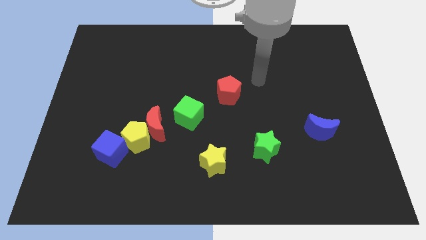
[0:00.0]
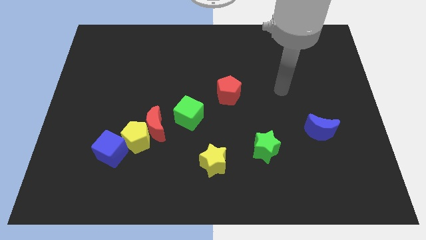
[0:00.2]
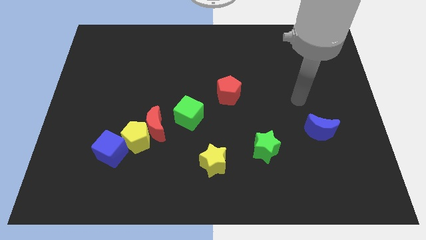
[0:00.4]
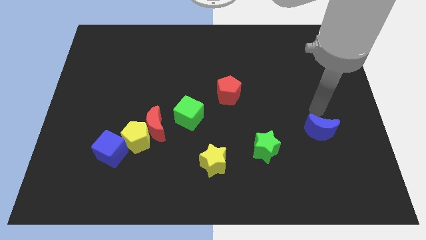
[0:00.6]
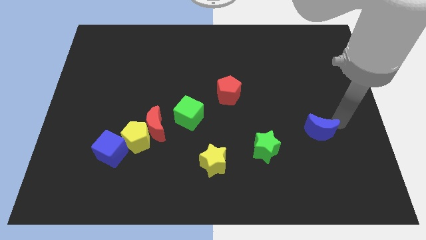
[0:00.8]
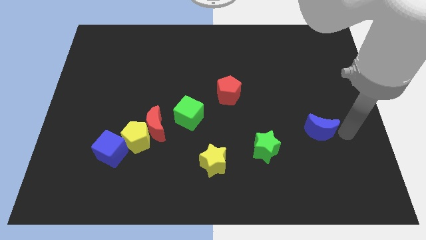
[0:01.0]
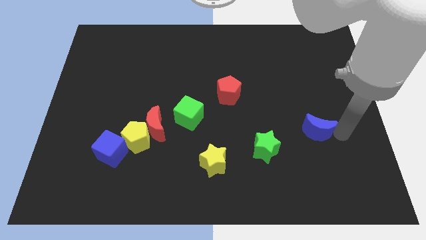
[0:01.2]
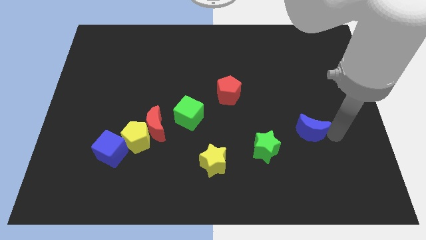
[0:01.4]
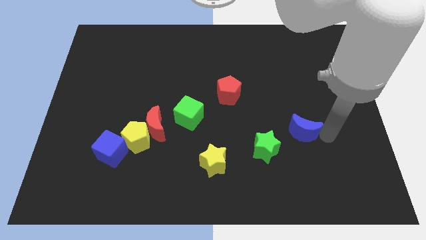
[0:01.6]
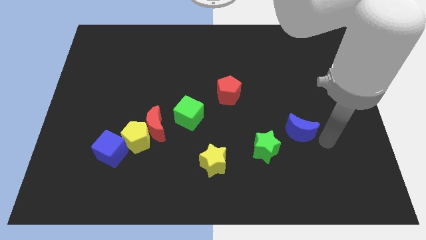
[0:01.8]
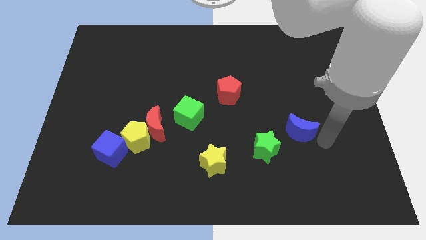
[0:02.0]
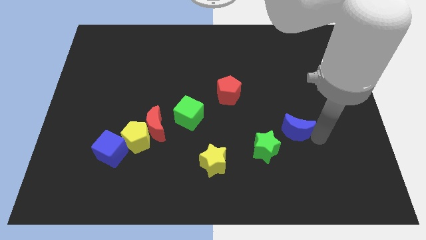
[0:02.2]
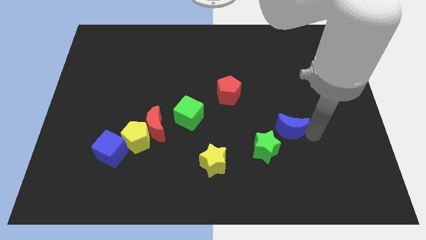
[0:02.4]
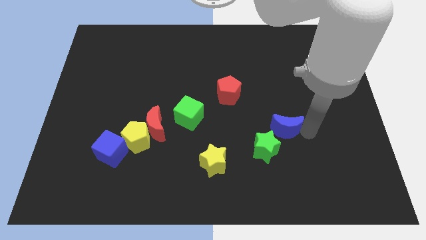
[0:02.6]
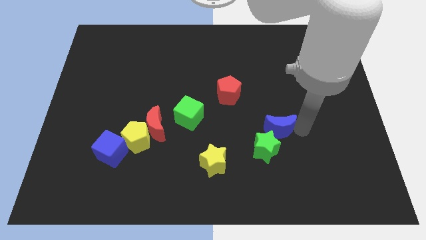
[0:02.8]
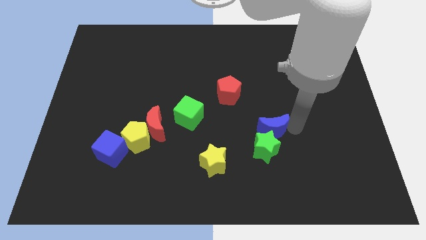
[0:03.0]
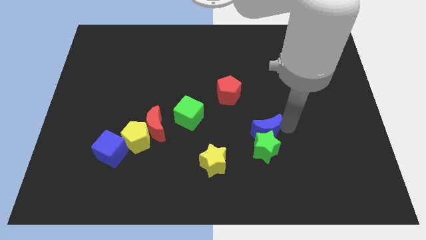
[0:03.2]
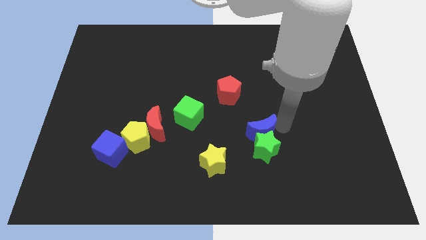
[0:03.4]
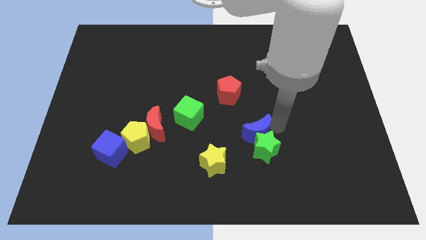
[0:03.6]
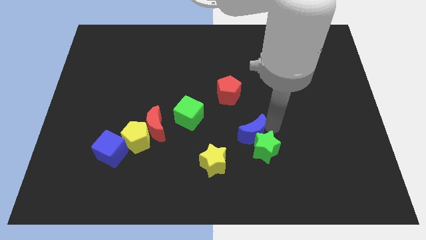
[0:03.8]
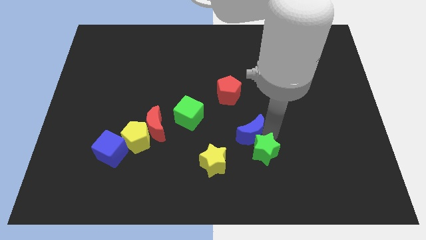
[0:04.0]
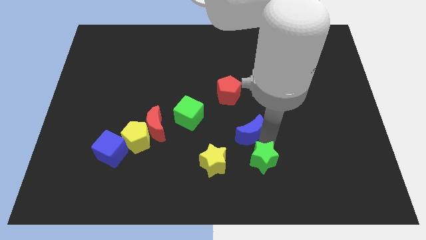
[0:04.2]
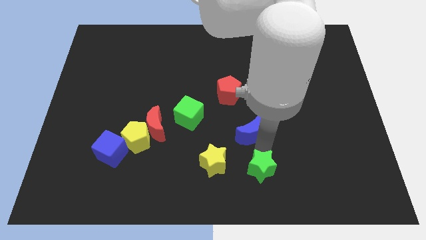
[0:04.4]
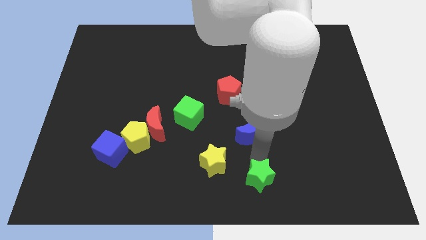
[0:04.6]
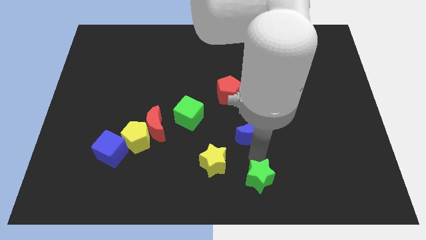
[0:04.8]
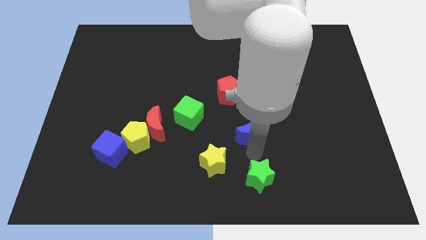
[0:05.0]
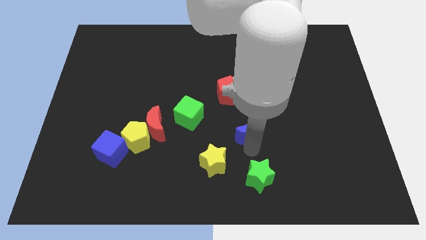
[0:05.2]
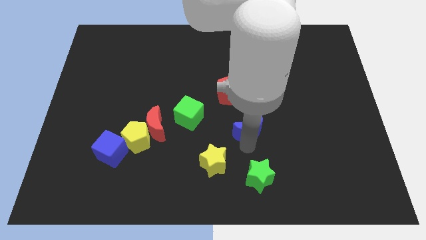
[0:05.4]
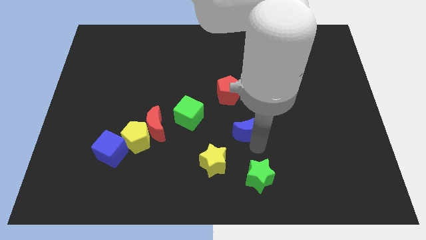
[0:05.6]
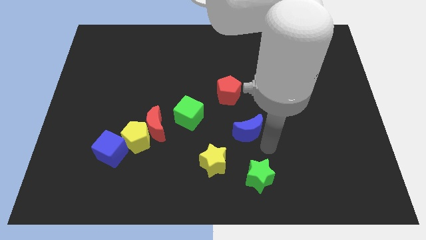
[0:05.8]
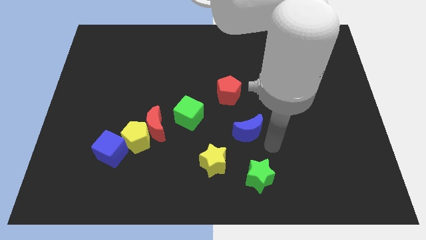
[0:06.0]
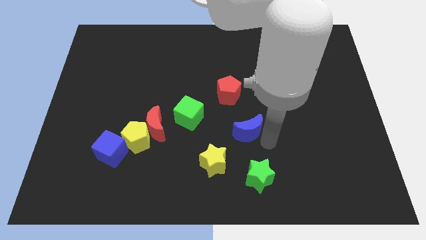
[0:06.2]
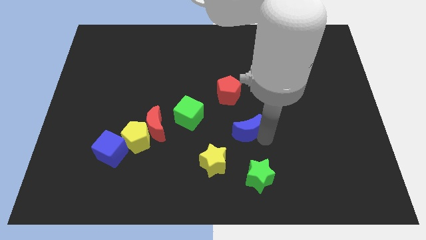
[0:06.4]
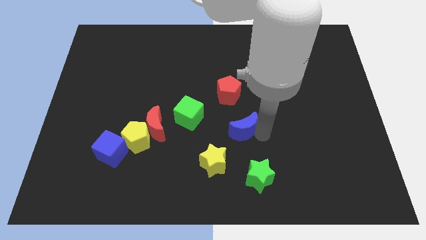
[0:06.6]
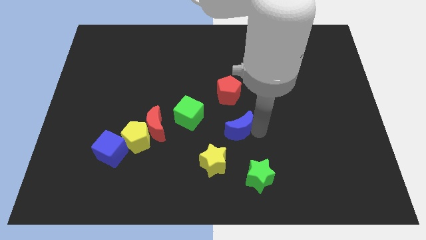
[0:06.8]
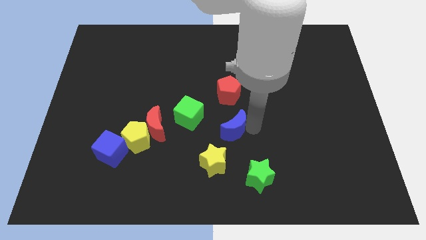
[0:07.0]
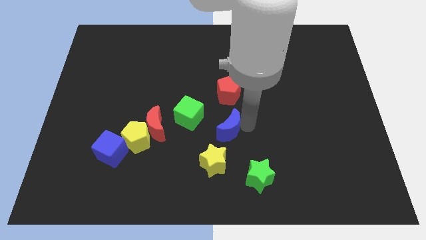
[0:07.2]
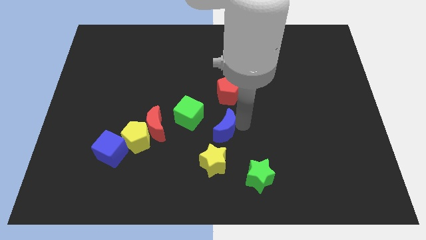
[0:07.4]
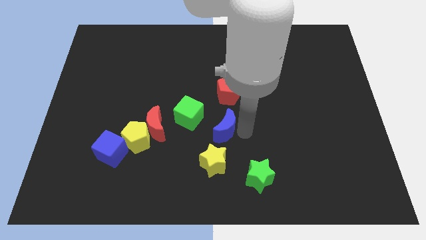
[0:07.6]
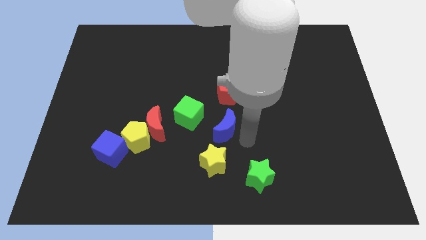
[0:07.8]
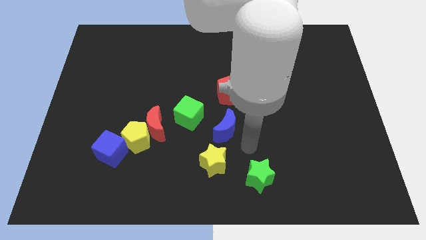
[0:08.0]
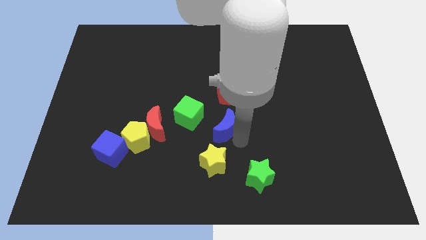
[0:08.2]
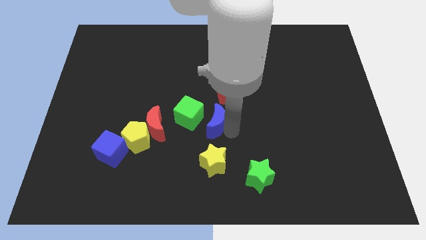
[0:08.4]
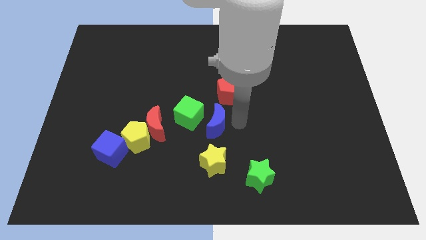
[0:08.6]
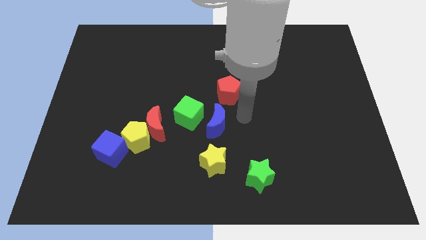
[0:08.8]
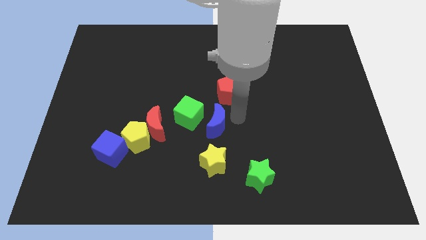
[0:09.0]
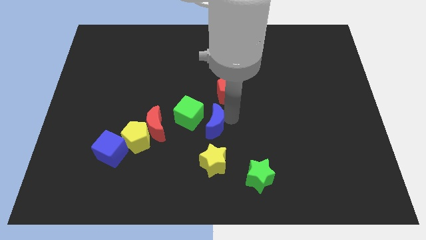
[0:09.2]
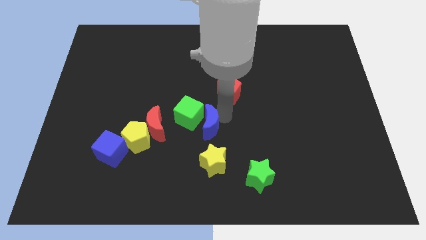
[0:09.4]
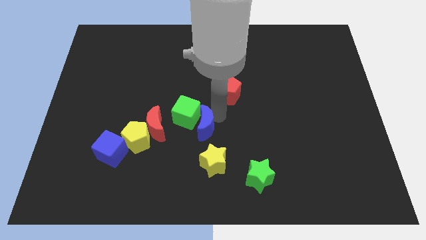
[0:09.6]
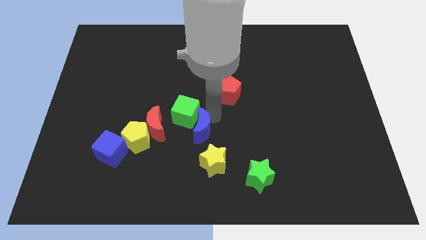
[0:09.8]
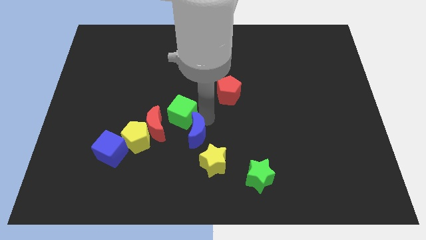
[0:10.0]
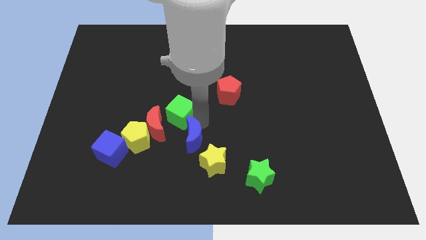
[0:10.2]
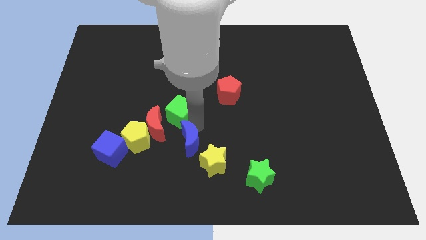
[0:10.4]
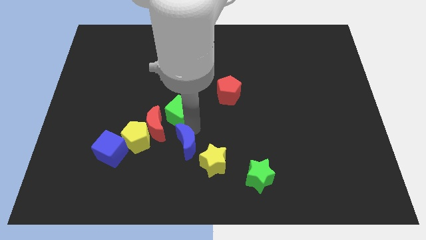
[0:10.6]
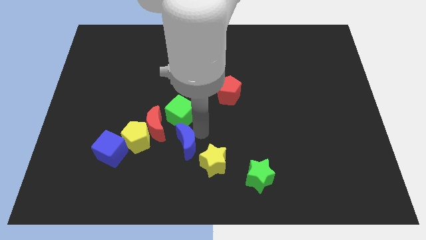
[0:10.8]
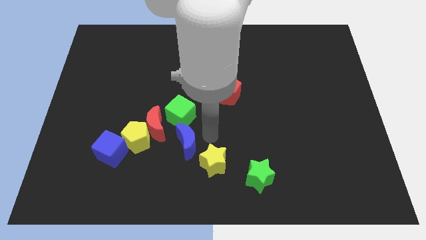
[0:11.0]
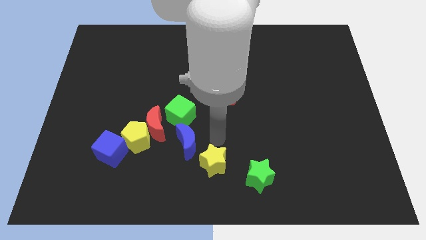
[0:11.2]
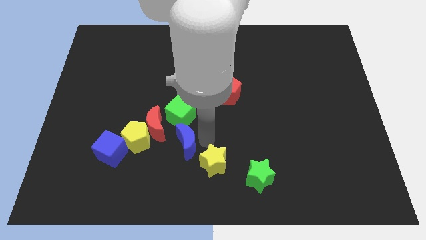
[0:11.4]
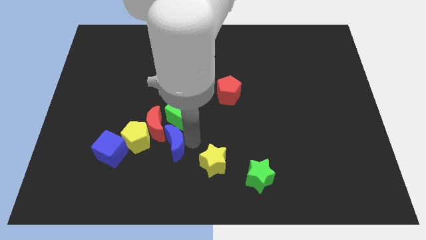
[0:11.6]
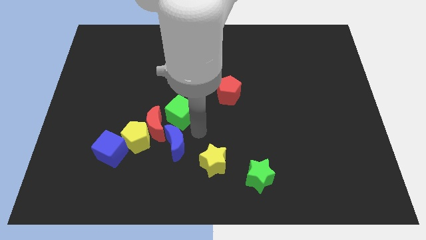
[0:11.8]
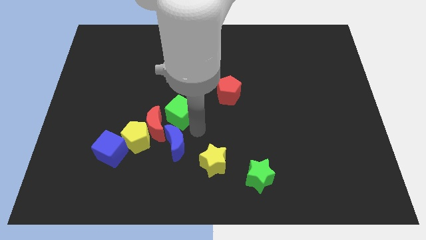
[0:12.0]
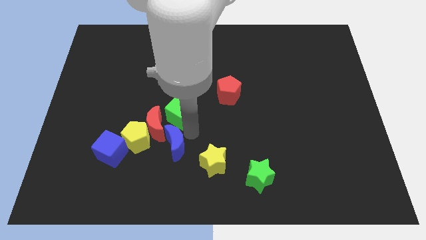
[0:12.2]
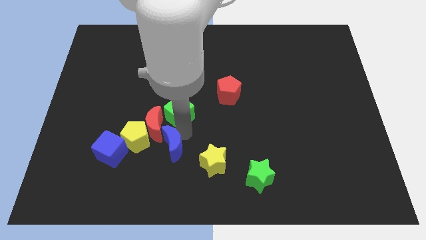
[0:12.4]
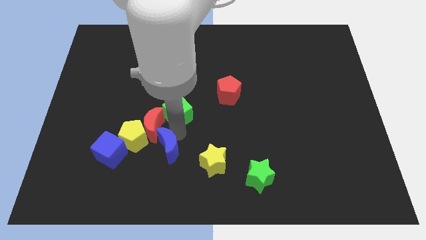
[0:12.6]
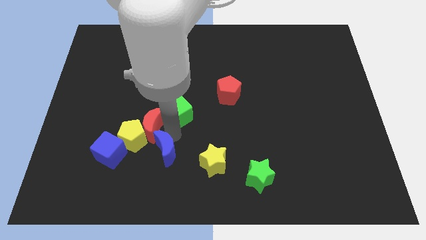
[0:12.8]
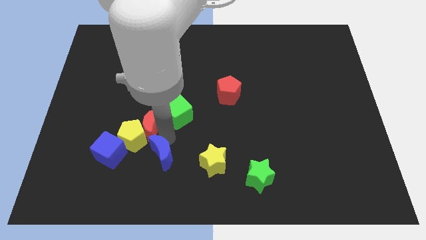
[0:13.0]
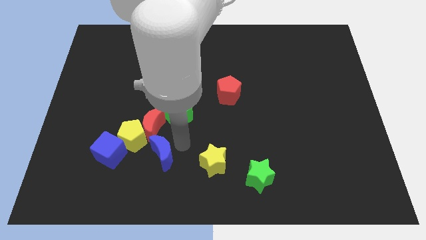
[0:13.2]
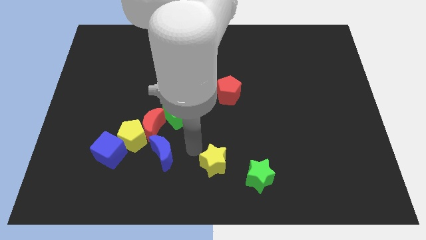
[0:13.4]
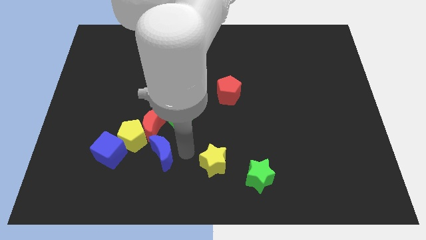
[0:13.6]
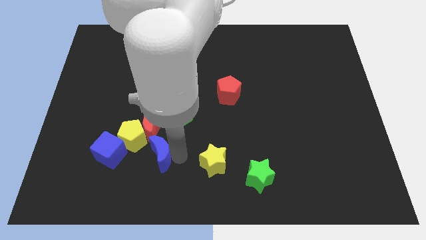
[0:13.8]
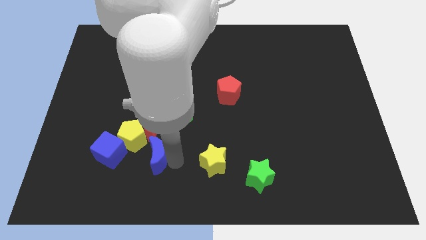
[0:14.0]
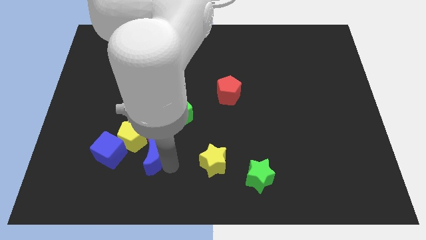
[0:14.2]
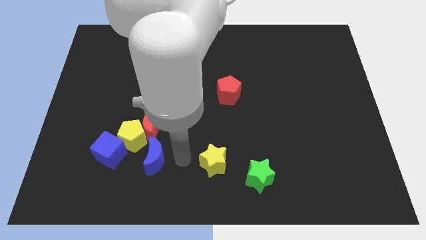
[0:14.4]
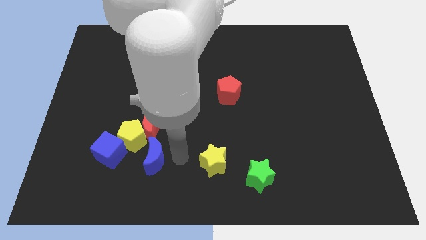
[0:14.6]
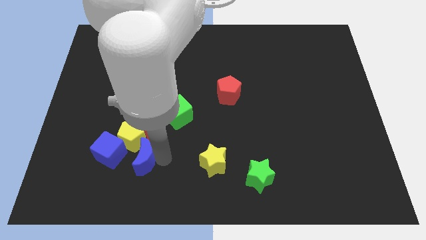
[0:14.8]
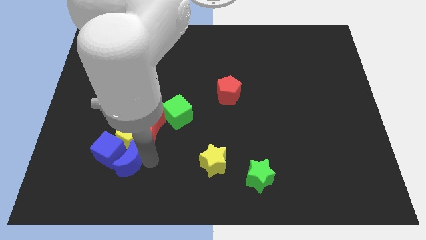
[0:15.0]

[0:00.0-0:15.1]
move the blue moon close to the blue cube
